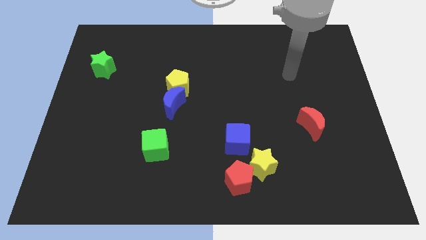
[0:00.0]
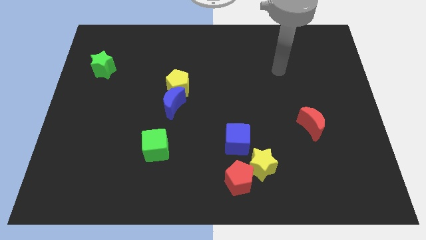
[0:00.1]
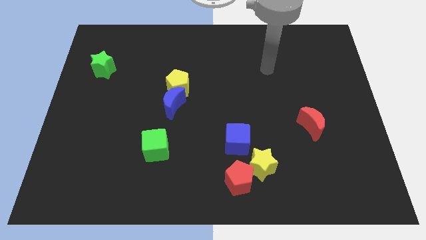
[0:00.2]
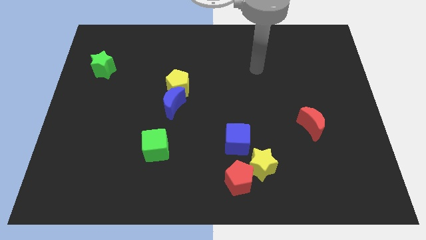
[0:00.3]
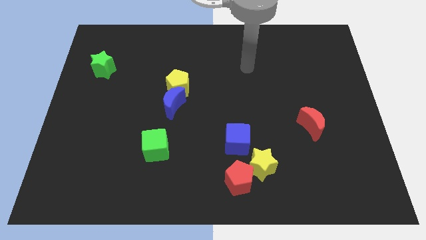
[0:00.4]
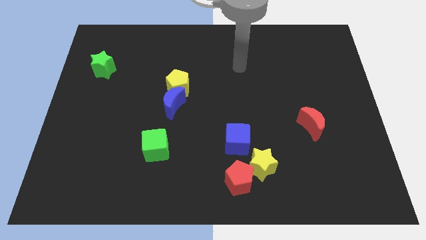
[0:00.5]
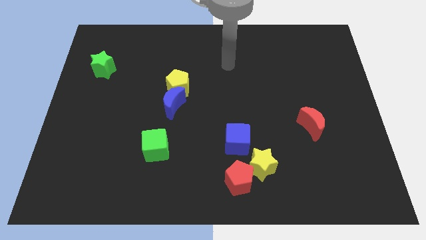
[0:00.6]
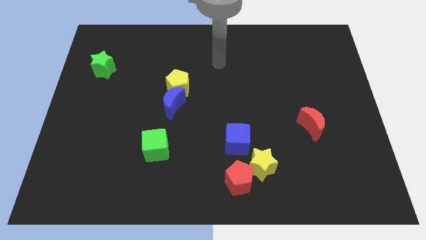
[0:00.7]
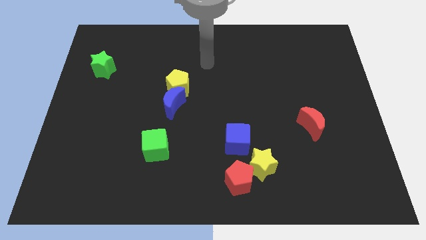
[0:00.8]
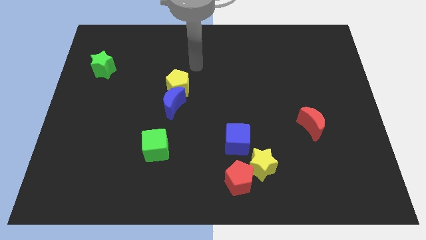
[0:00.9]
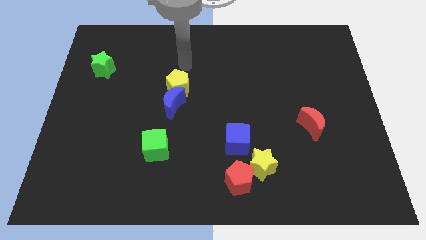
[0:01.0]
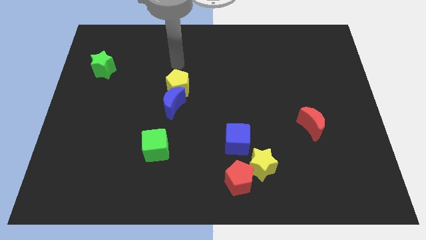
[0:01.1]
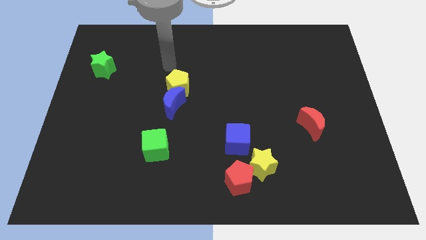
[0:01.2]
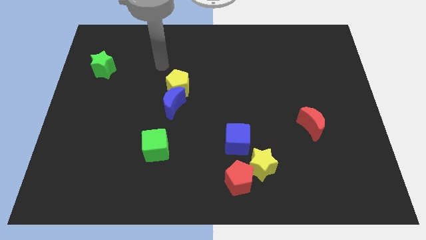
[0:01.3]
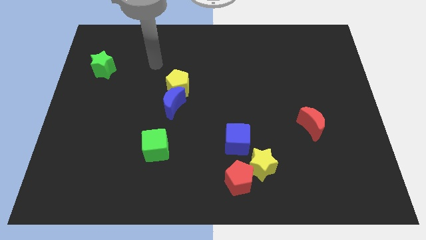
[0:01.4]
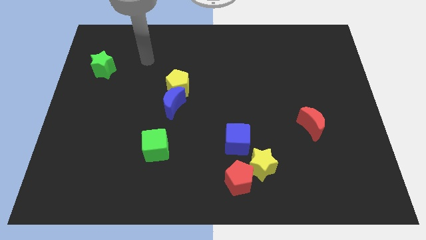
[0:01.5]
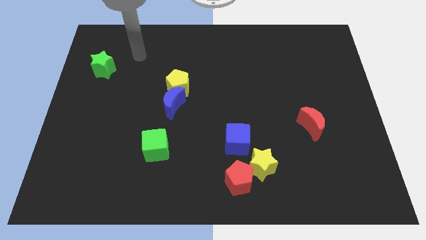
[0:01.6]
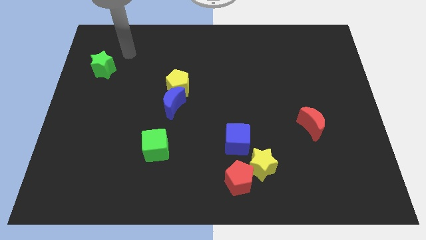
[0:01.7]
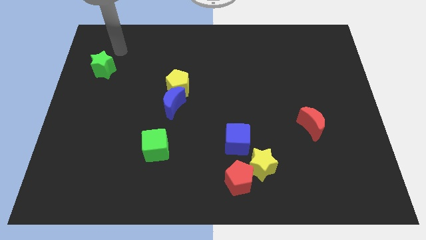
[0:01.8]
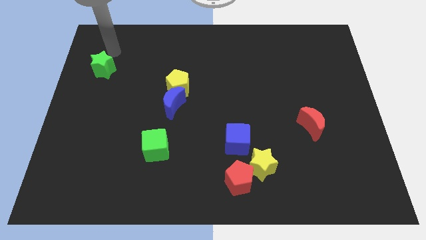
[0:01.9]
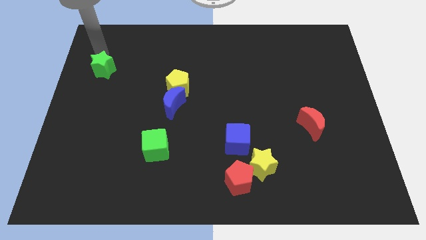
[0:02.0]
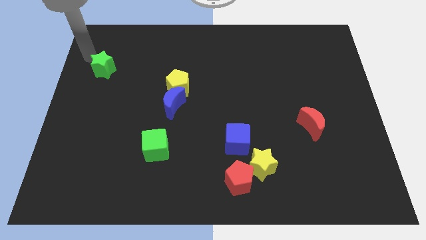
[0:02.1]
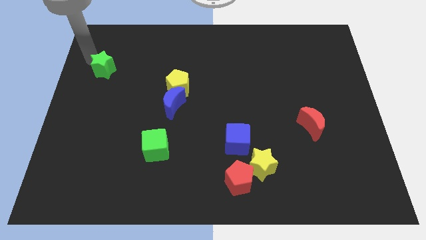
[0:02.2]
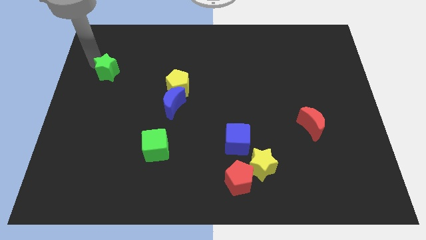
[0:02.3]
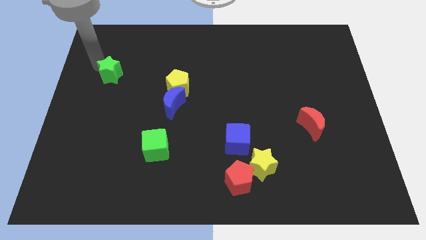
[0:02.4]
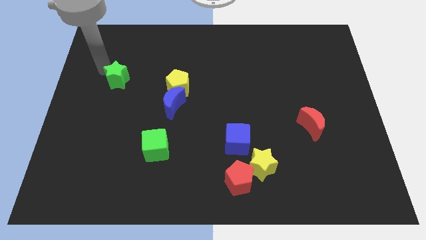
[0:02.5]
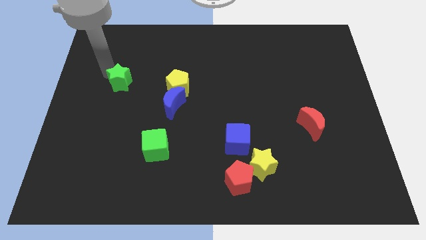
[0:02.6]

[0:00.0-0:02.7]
move the green star somewhat down and then right

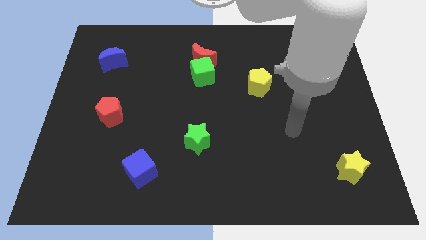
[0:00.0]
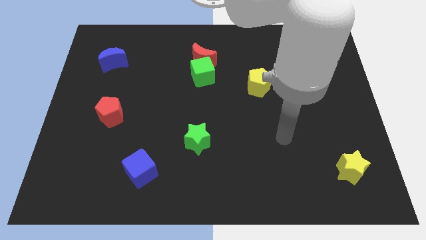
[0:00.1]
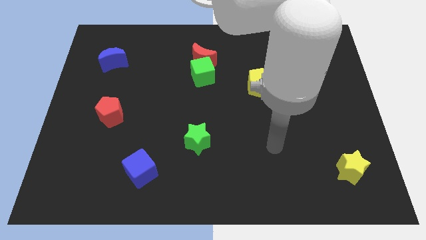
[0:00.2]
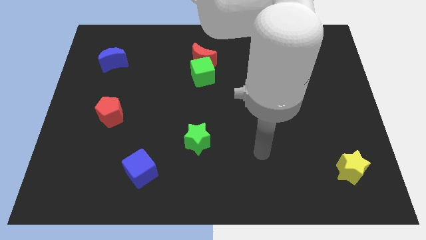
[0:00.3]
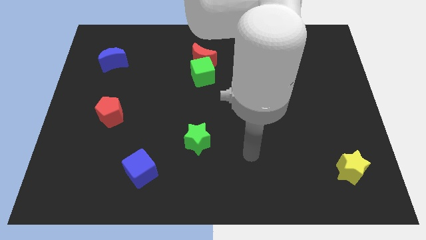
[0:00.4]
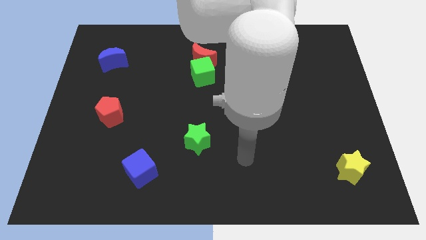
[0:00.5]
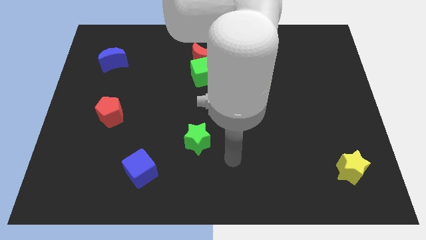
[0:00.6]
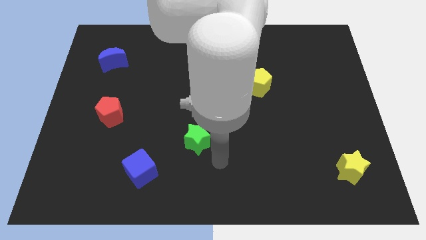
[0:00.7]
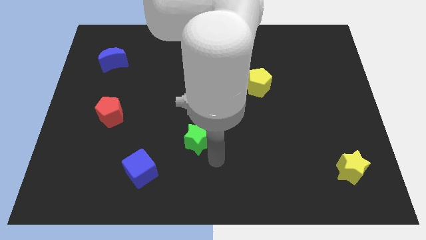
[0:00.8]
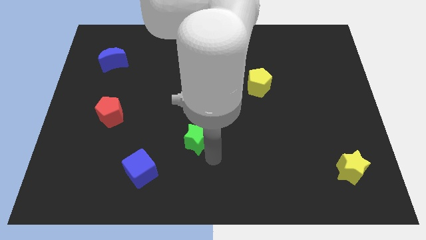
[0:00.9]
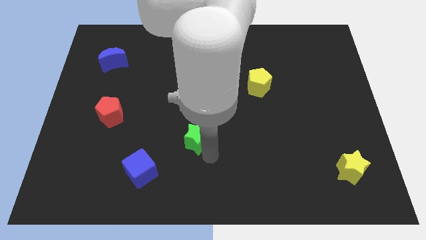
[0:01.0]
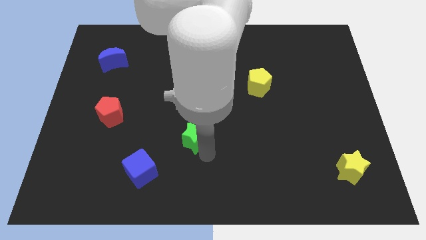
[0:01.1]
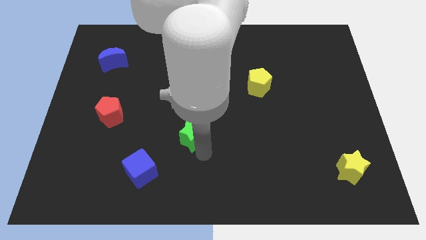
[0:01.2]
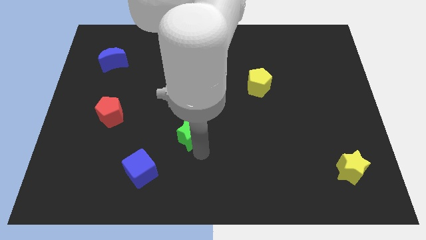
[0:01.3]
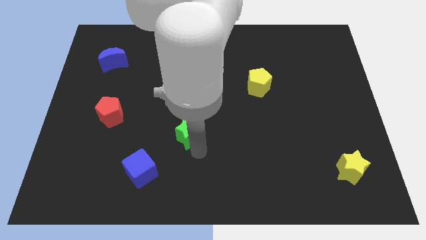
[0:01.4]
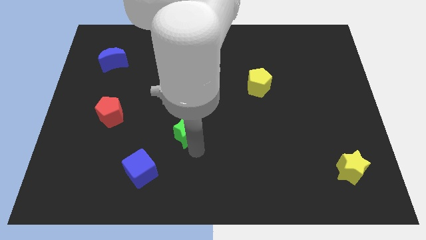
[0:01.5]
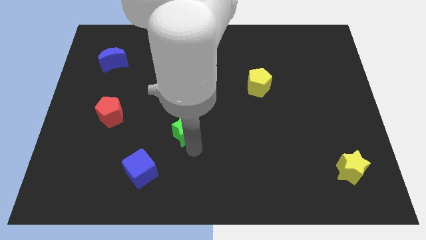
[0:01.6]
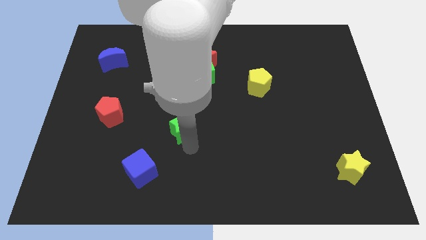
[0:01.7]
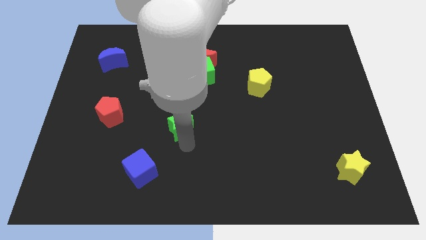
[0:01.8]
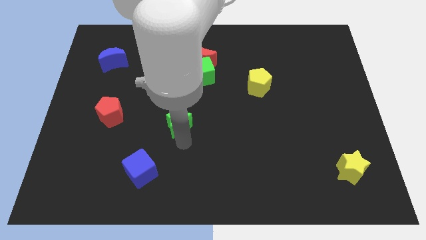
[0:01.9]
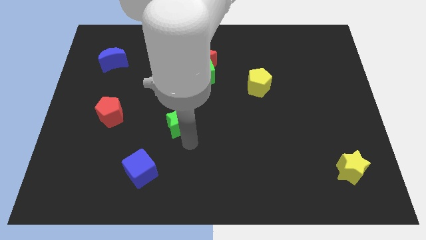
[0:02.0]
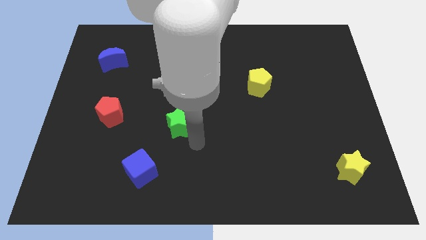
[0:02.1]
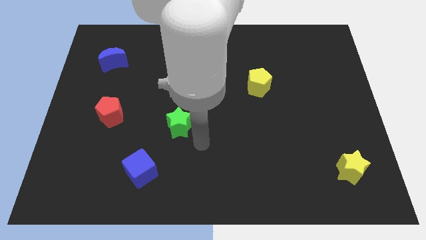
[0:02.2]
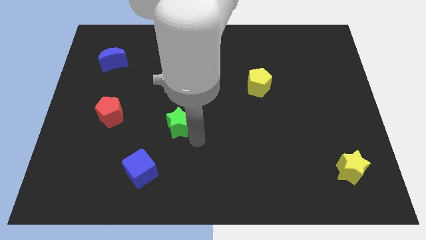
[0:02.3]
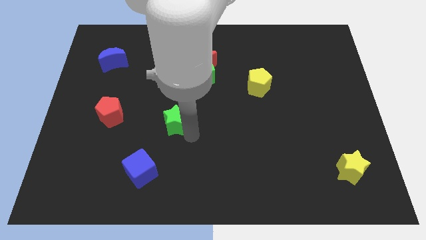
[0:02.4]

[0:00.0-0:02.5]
move the green star somewhat upwards and then left

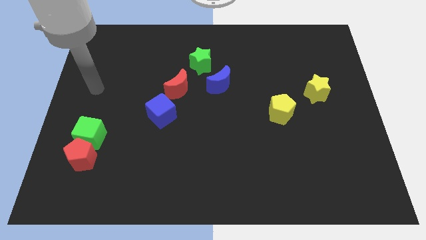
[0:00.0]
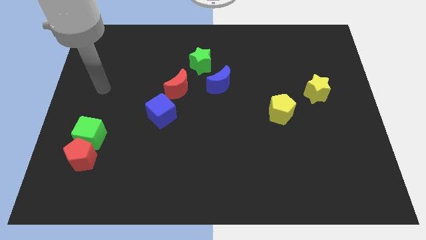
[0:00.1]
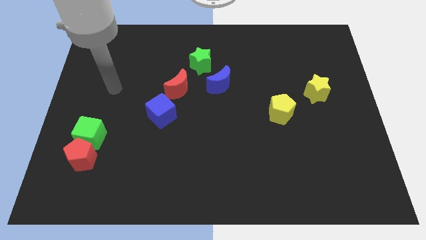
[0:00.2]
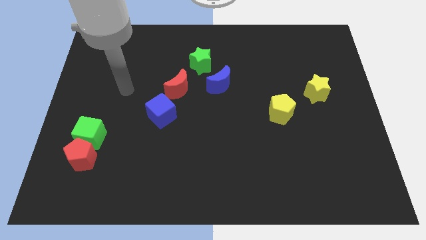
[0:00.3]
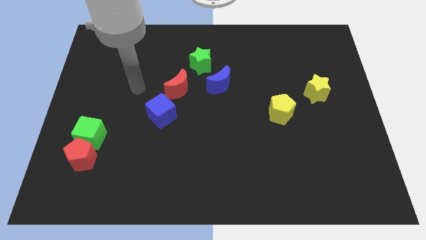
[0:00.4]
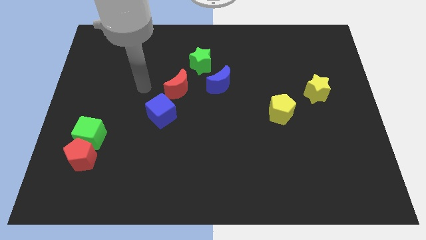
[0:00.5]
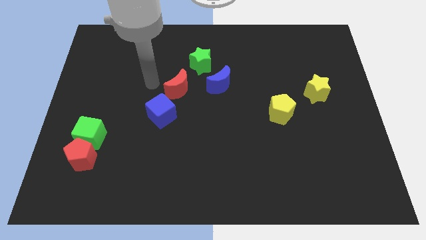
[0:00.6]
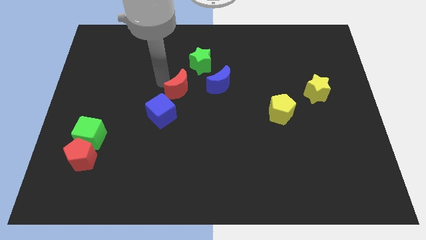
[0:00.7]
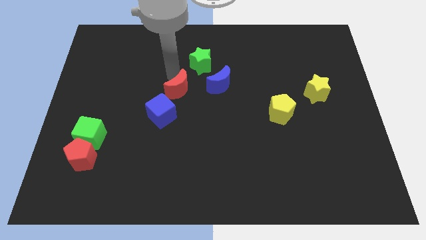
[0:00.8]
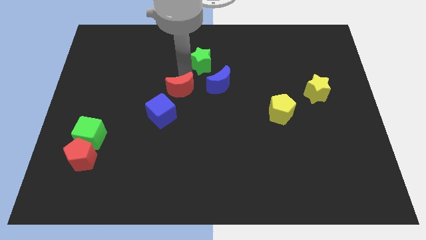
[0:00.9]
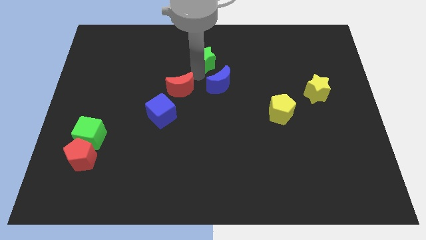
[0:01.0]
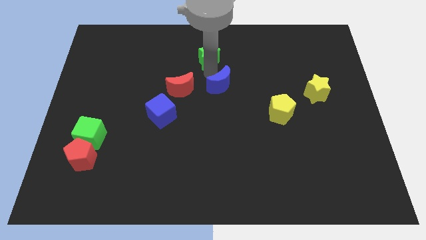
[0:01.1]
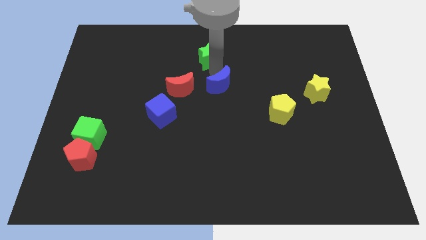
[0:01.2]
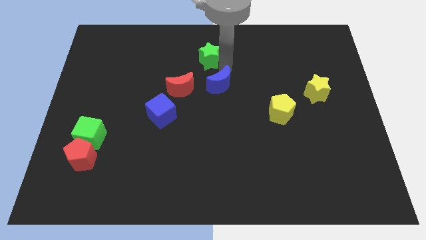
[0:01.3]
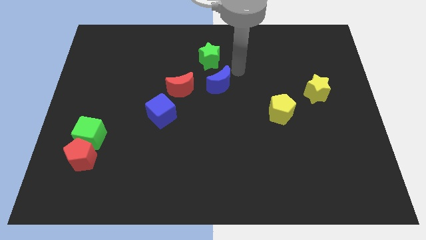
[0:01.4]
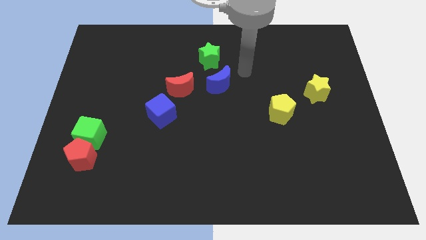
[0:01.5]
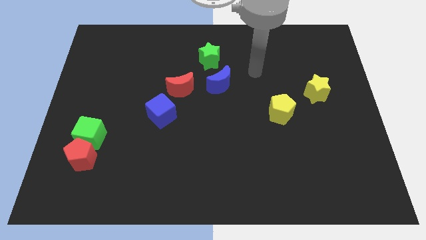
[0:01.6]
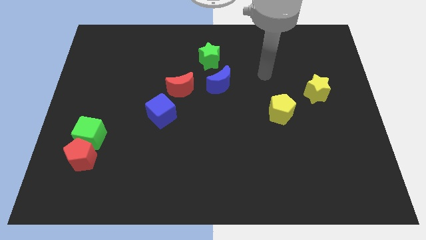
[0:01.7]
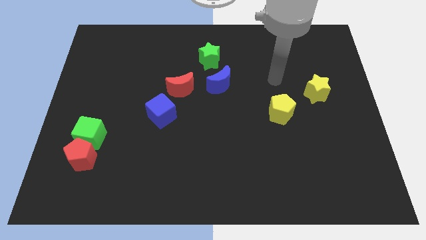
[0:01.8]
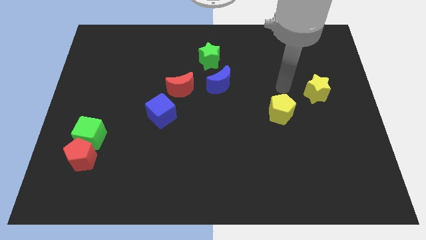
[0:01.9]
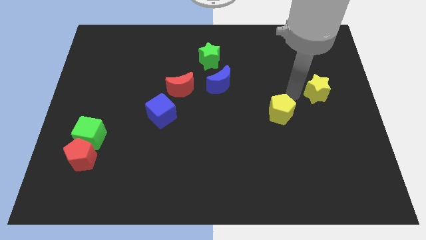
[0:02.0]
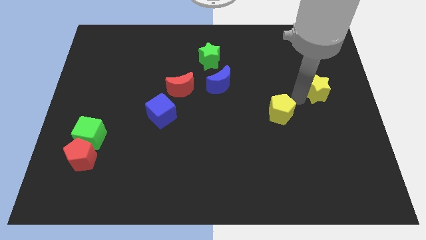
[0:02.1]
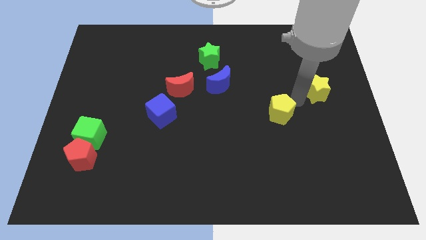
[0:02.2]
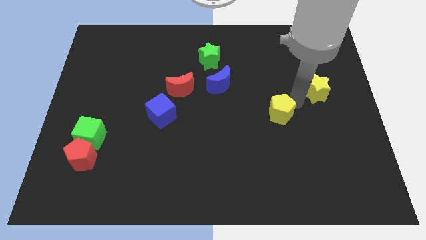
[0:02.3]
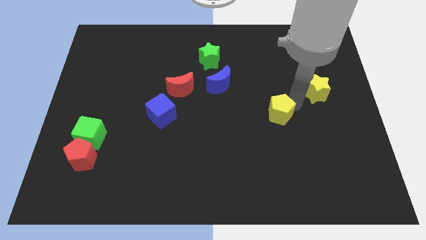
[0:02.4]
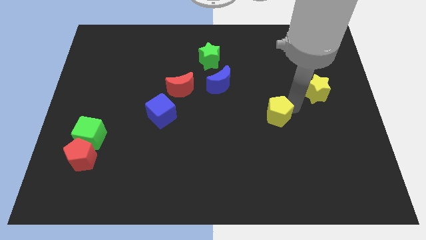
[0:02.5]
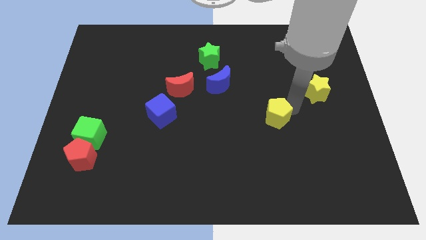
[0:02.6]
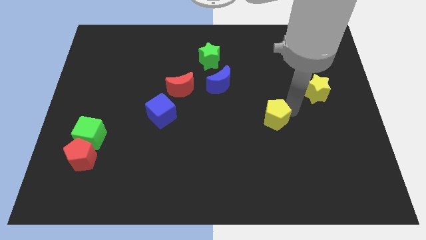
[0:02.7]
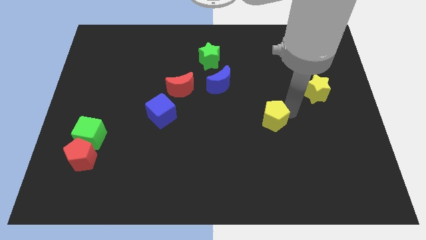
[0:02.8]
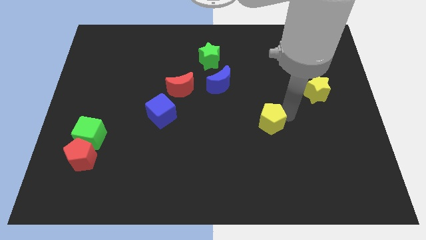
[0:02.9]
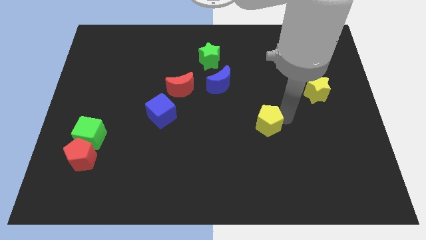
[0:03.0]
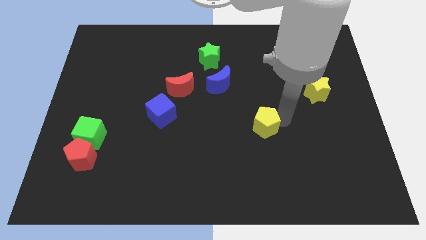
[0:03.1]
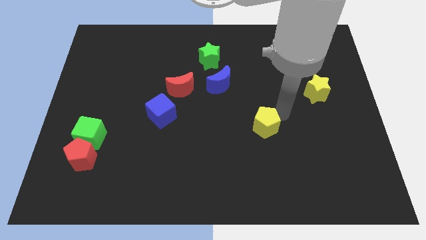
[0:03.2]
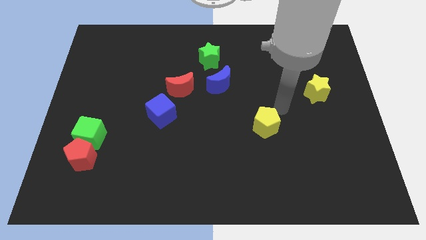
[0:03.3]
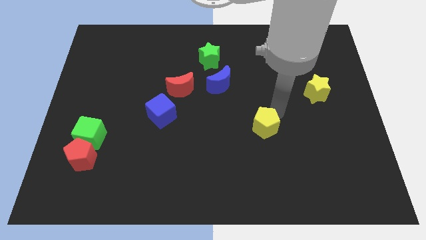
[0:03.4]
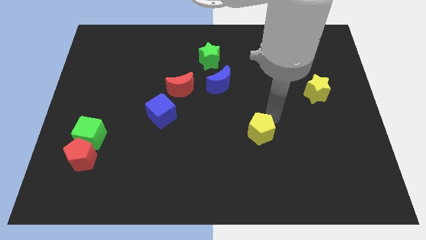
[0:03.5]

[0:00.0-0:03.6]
push the yellow pentagon diagonally down and left a little bit
